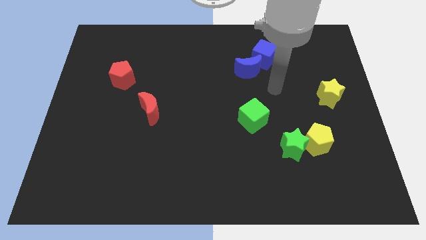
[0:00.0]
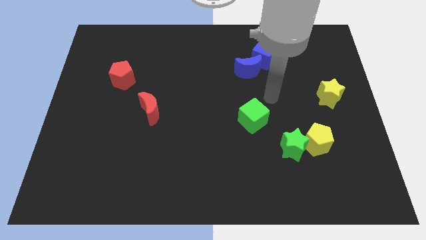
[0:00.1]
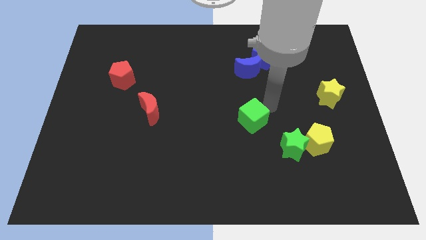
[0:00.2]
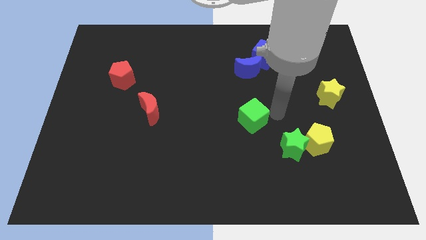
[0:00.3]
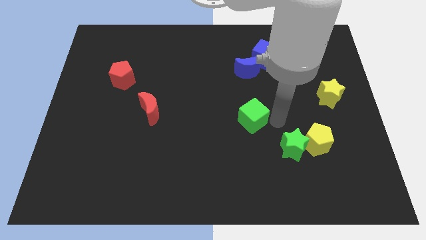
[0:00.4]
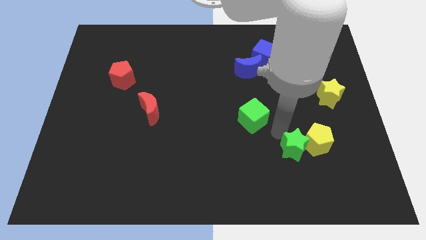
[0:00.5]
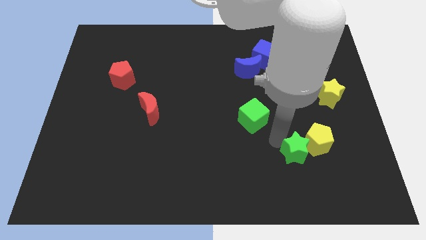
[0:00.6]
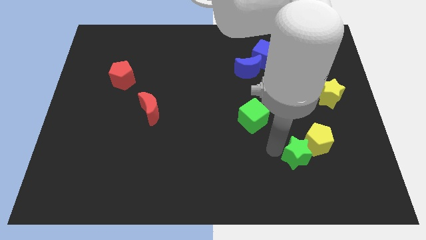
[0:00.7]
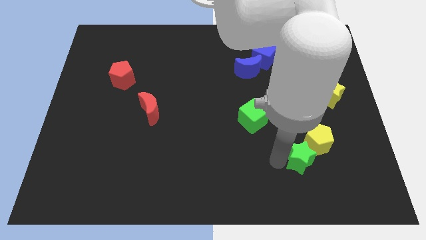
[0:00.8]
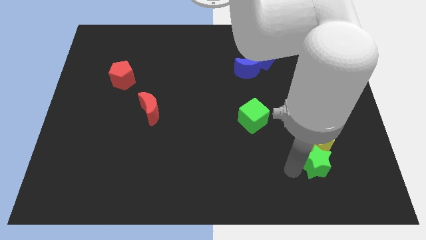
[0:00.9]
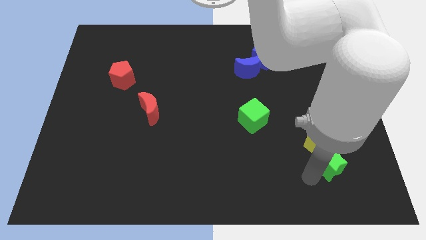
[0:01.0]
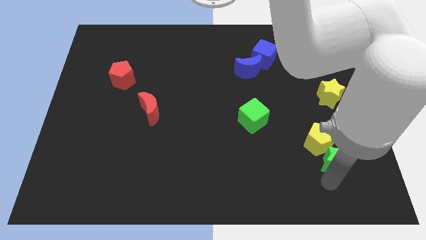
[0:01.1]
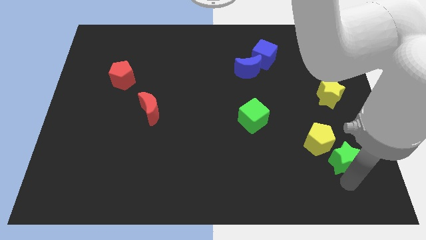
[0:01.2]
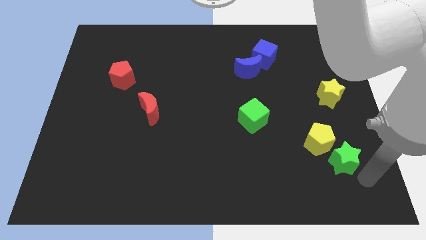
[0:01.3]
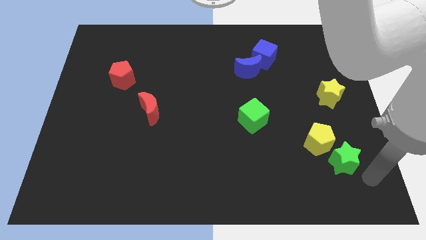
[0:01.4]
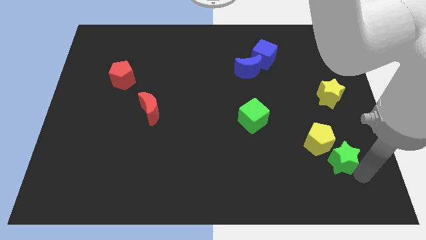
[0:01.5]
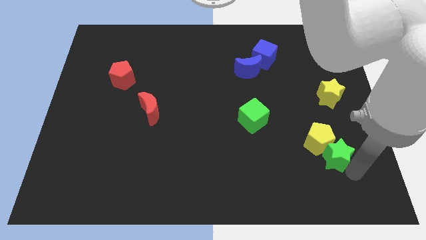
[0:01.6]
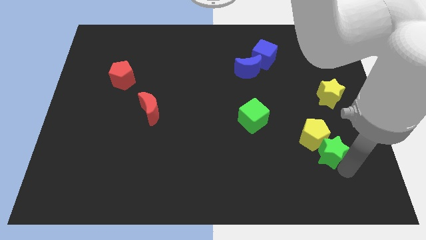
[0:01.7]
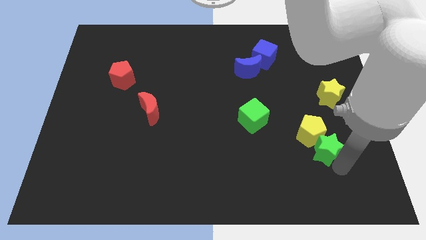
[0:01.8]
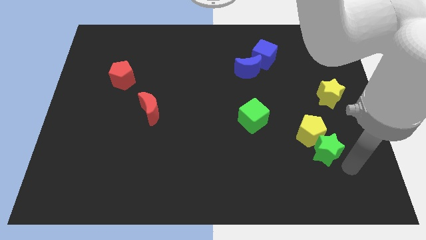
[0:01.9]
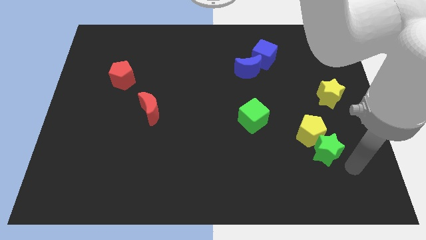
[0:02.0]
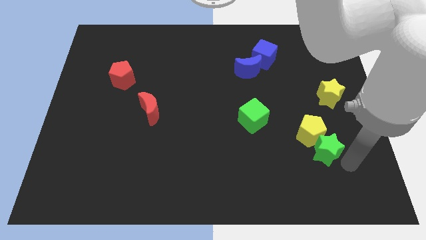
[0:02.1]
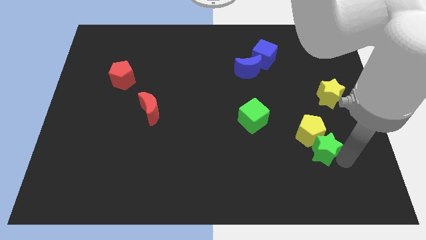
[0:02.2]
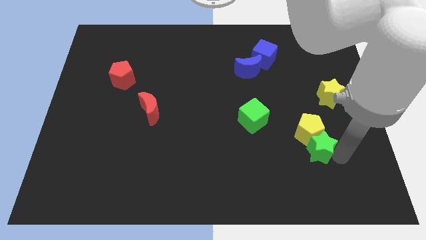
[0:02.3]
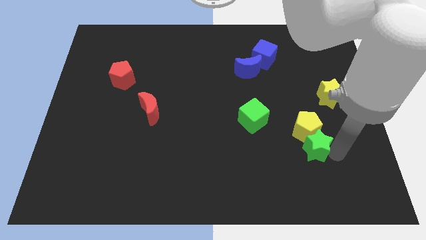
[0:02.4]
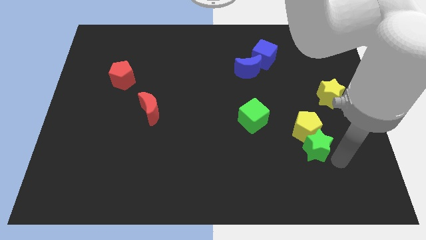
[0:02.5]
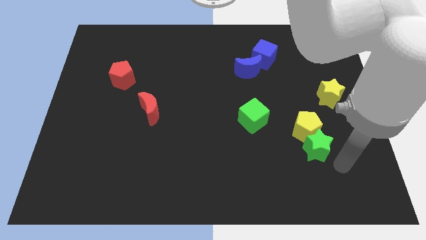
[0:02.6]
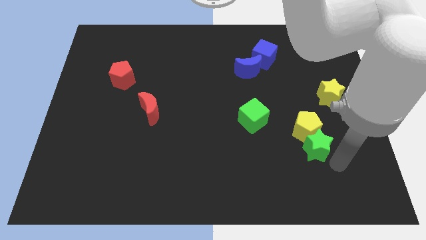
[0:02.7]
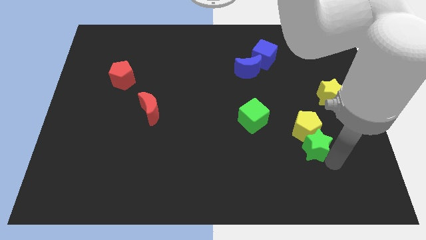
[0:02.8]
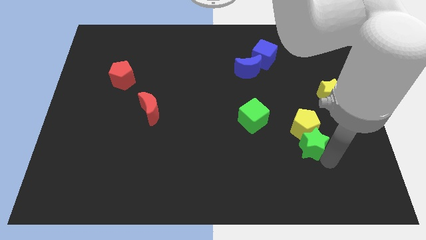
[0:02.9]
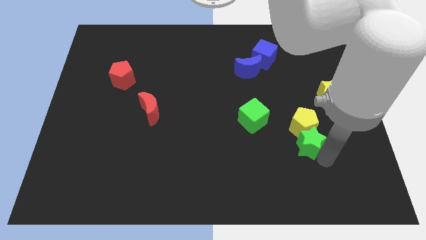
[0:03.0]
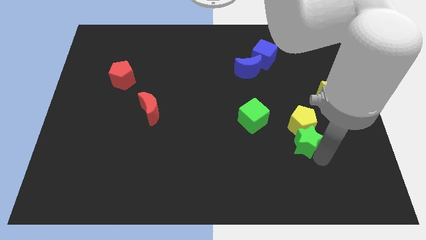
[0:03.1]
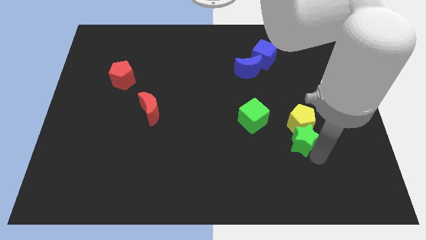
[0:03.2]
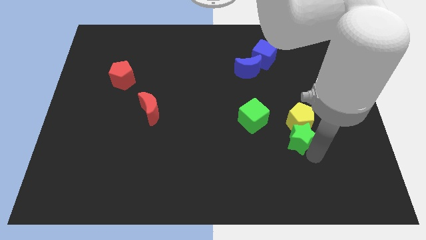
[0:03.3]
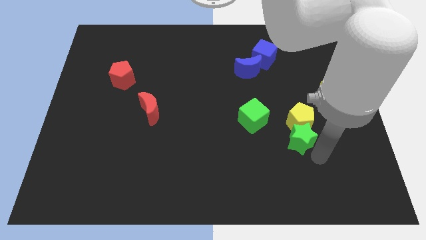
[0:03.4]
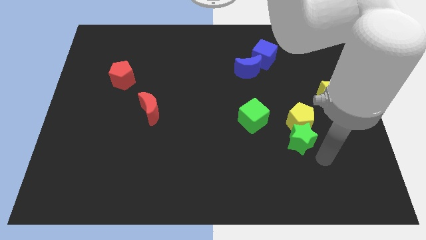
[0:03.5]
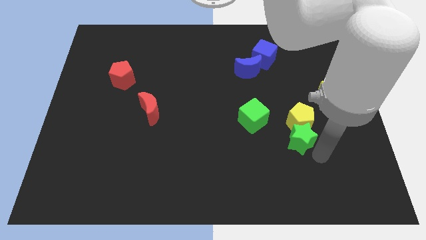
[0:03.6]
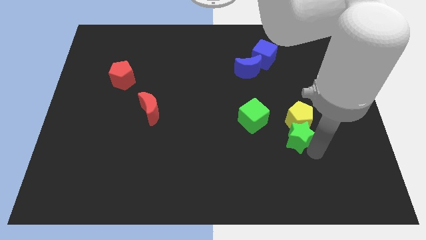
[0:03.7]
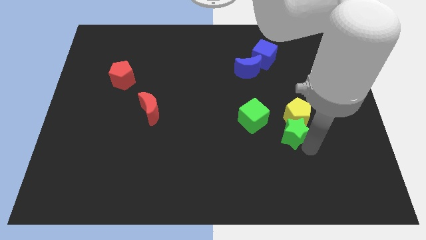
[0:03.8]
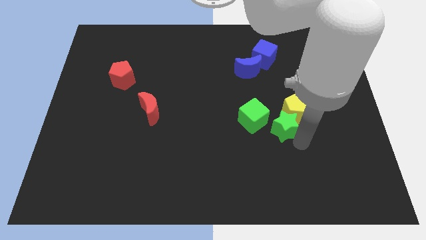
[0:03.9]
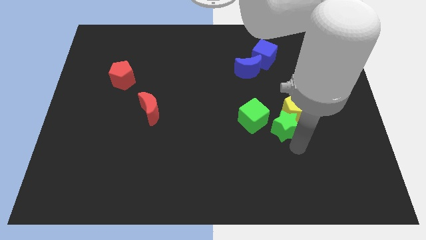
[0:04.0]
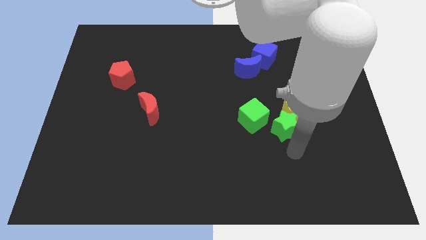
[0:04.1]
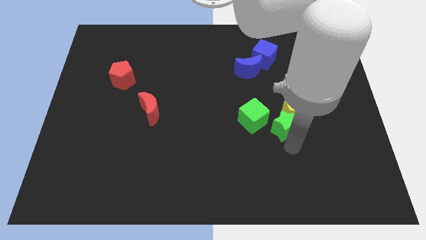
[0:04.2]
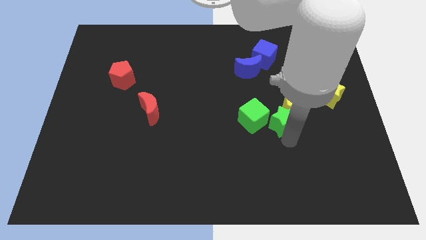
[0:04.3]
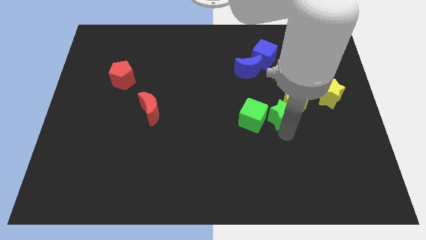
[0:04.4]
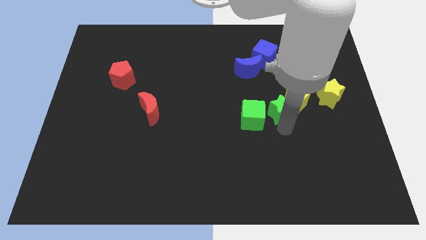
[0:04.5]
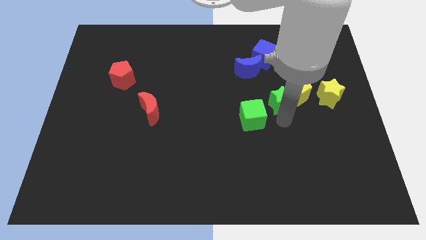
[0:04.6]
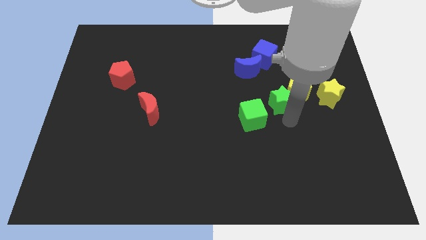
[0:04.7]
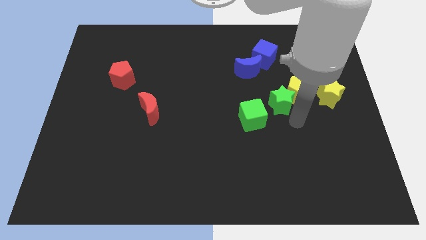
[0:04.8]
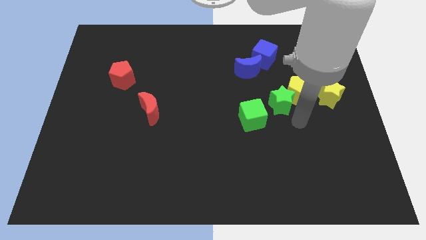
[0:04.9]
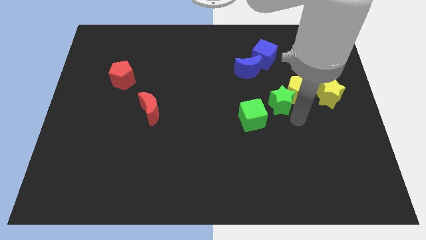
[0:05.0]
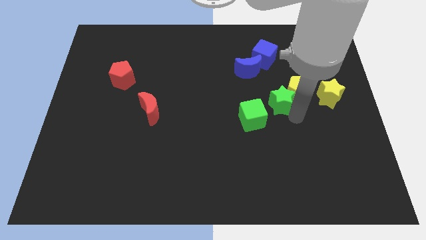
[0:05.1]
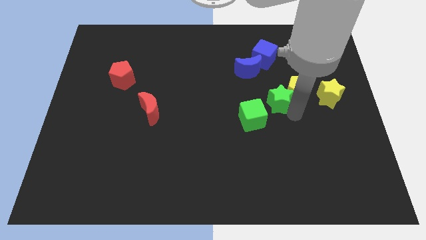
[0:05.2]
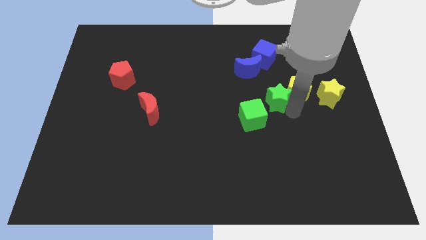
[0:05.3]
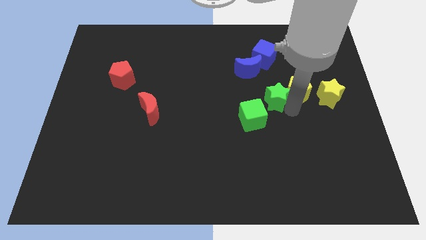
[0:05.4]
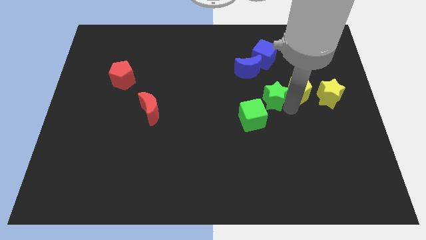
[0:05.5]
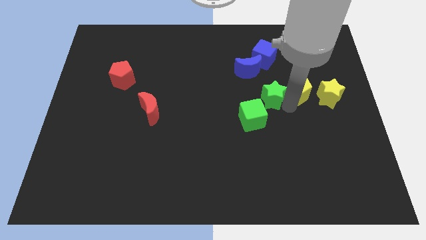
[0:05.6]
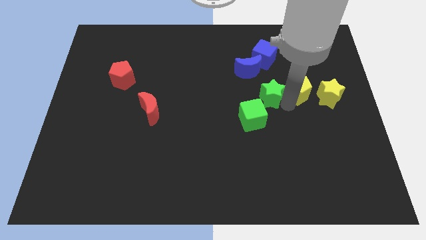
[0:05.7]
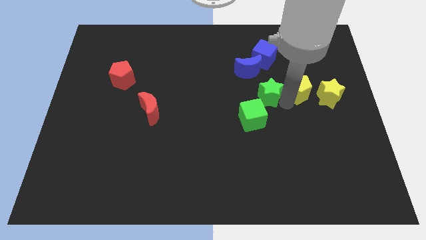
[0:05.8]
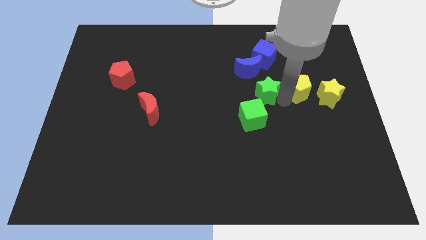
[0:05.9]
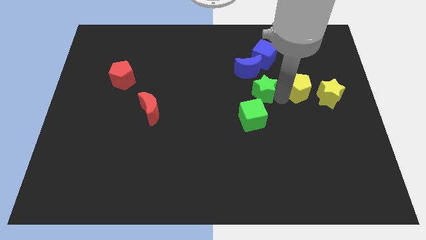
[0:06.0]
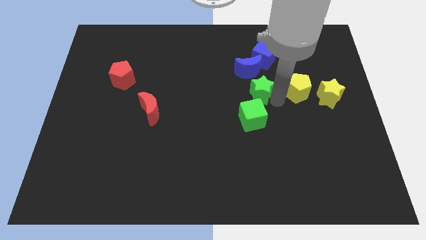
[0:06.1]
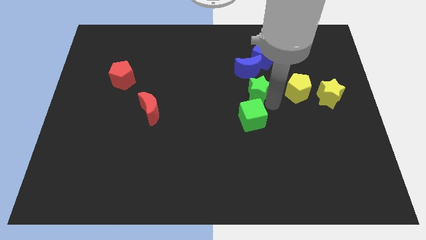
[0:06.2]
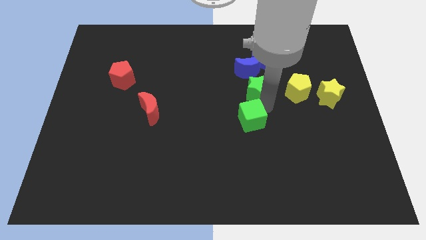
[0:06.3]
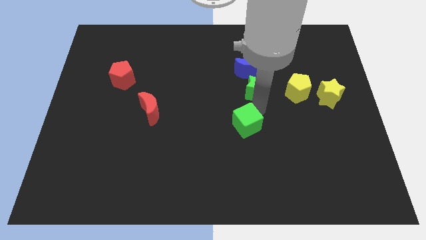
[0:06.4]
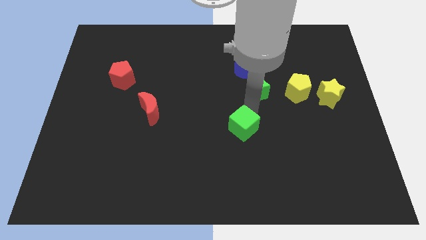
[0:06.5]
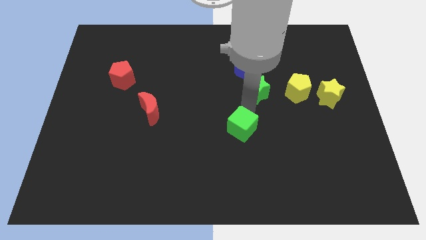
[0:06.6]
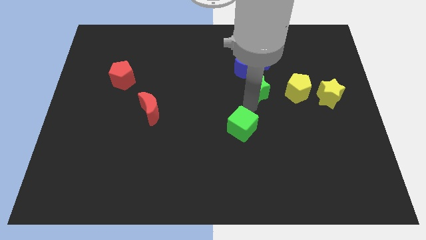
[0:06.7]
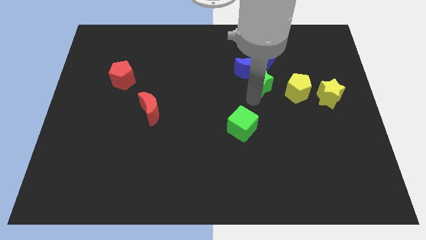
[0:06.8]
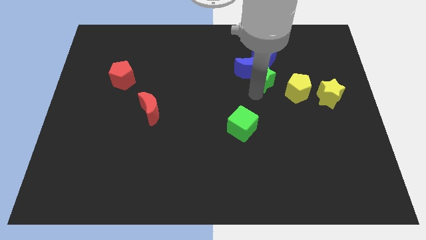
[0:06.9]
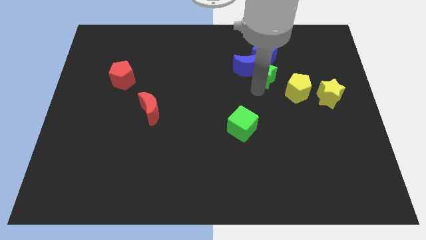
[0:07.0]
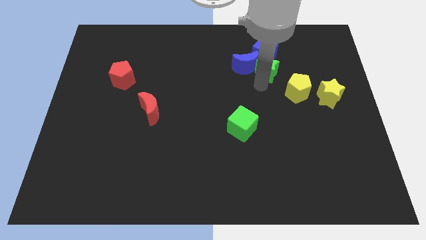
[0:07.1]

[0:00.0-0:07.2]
put the green star next to the blue cube
